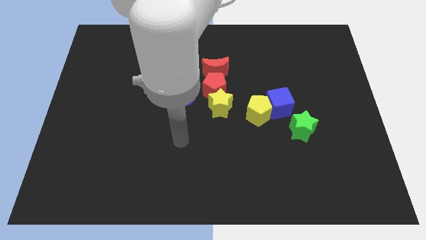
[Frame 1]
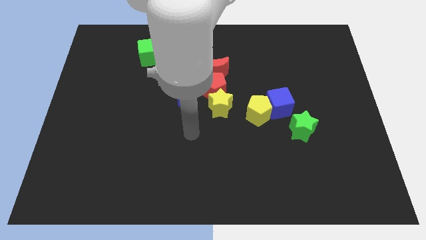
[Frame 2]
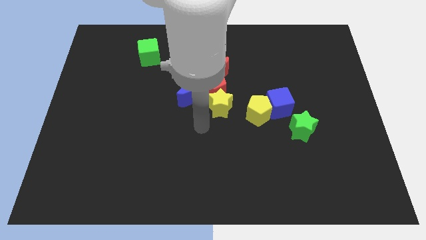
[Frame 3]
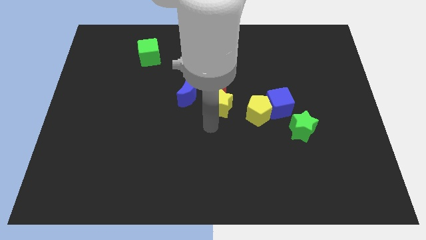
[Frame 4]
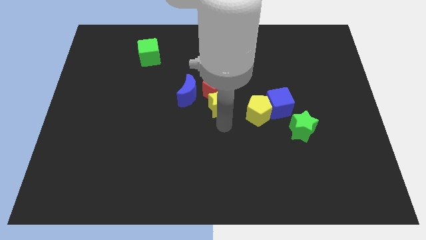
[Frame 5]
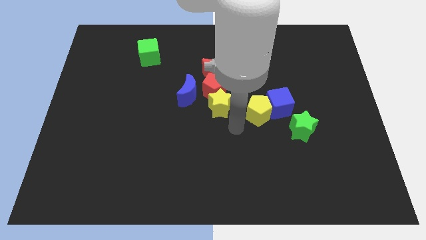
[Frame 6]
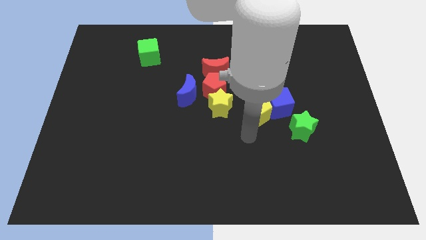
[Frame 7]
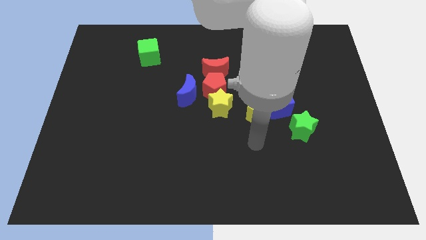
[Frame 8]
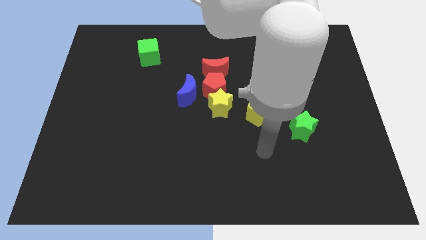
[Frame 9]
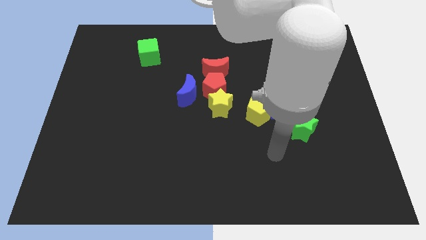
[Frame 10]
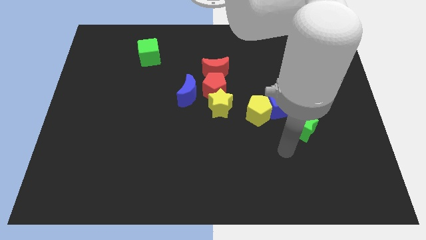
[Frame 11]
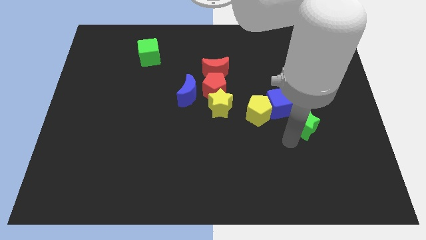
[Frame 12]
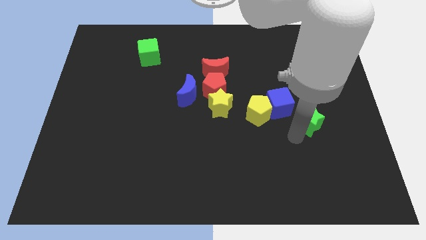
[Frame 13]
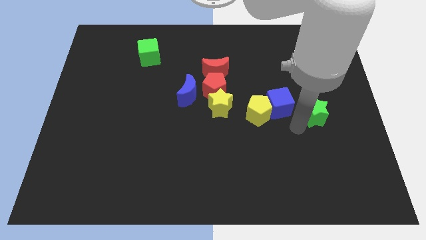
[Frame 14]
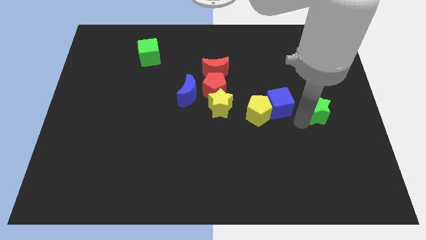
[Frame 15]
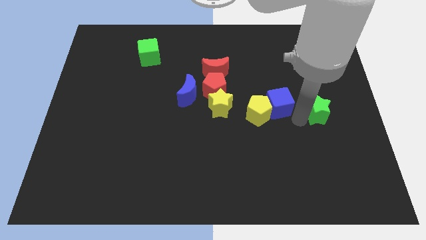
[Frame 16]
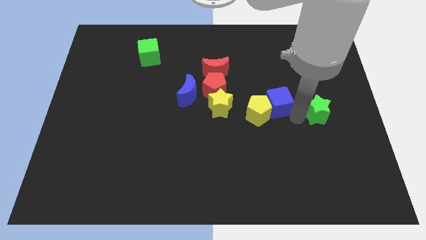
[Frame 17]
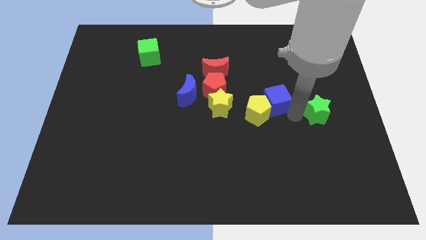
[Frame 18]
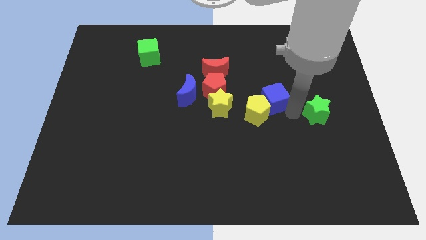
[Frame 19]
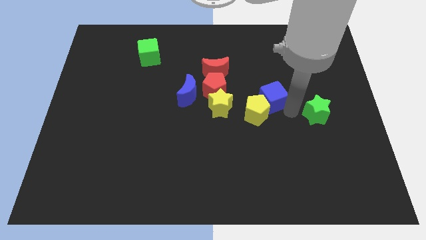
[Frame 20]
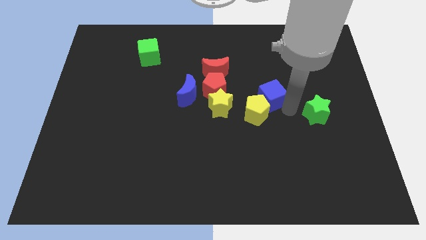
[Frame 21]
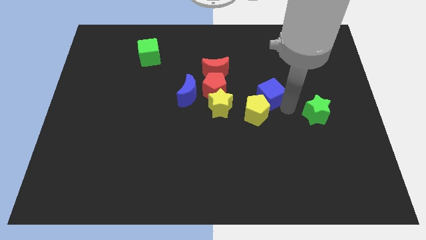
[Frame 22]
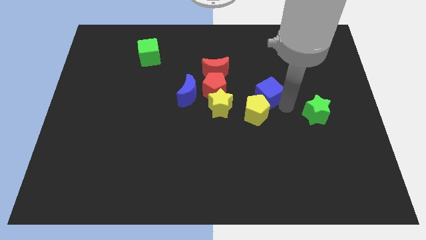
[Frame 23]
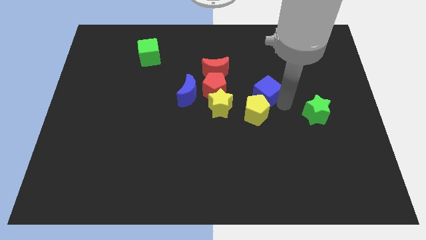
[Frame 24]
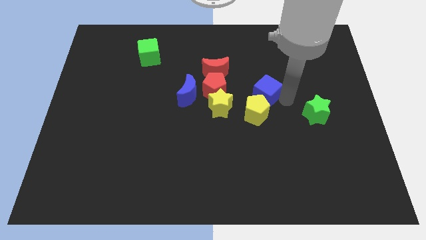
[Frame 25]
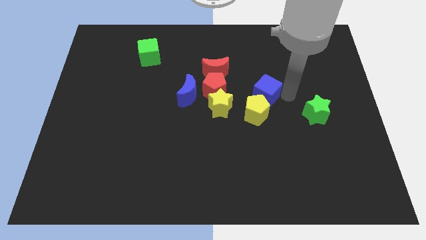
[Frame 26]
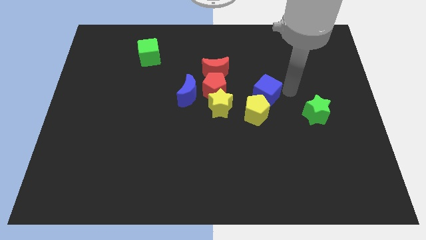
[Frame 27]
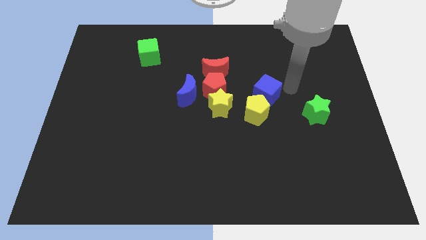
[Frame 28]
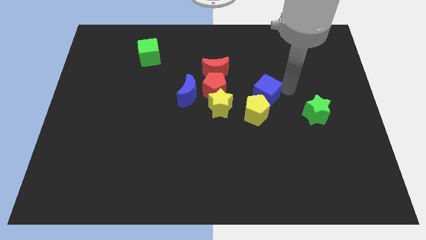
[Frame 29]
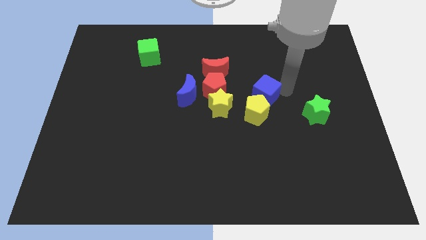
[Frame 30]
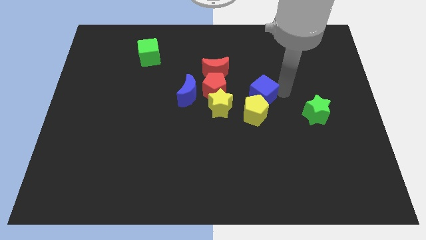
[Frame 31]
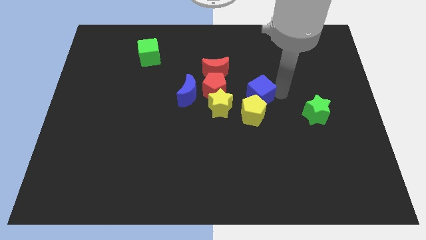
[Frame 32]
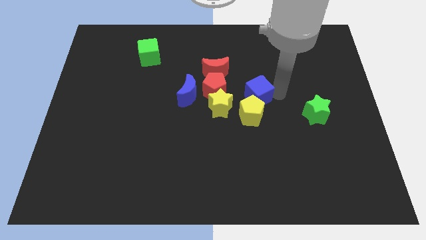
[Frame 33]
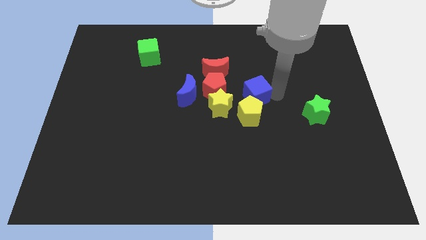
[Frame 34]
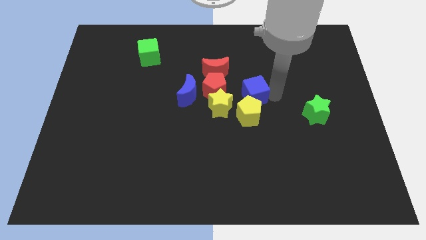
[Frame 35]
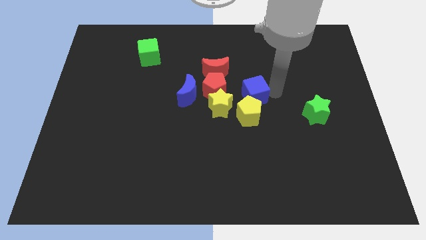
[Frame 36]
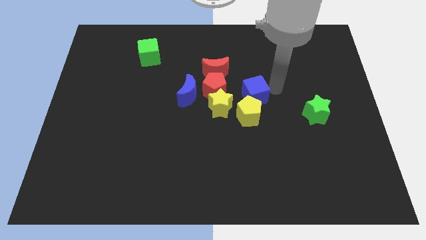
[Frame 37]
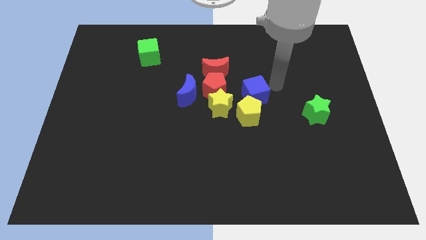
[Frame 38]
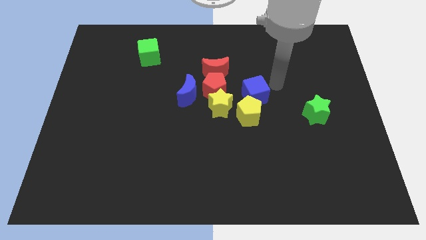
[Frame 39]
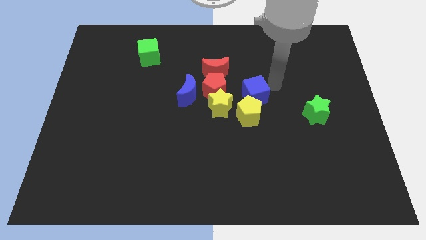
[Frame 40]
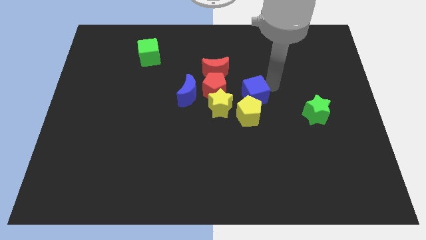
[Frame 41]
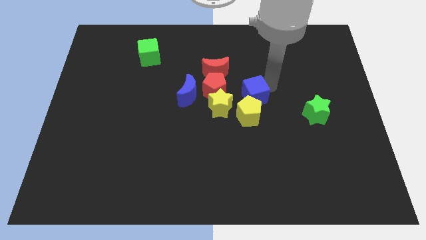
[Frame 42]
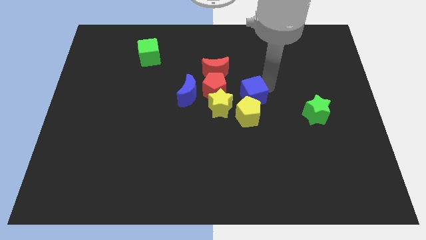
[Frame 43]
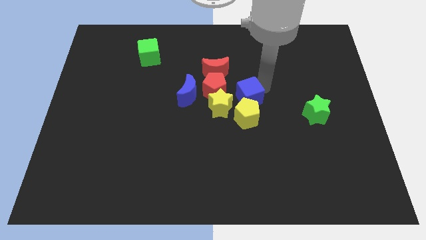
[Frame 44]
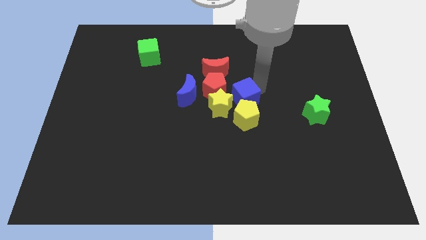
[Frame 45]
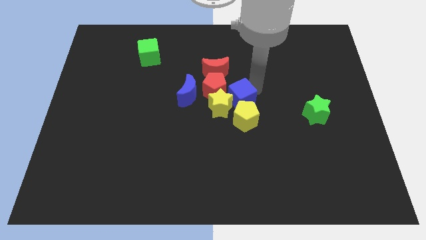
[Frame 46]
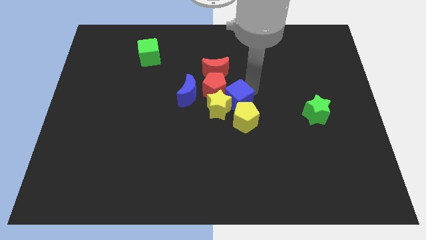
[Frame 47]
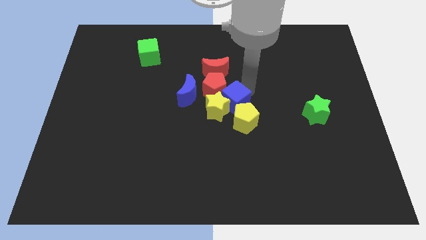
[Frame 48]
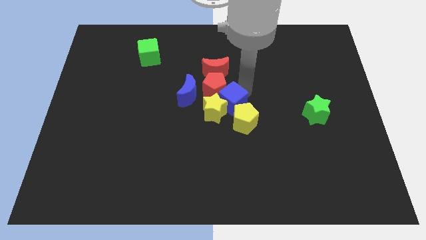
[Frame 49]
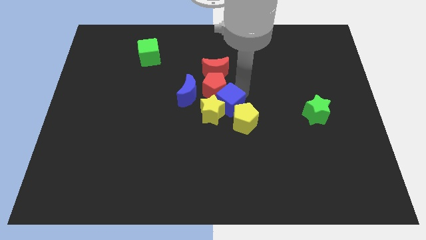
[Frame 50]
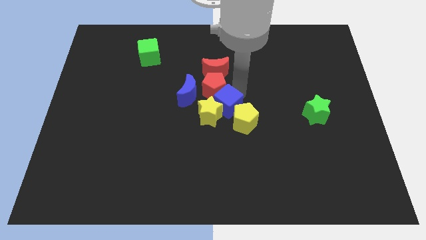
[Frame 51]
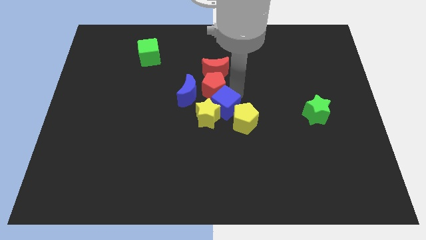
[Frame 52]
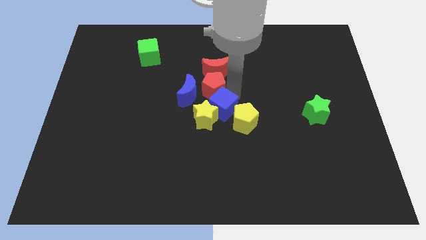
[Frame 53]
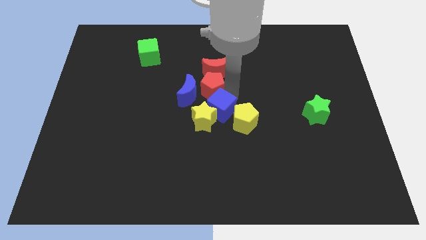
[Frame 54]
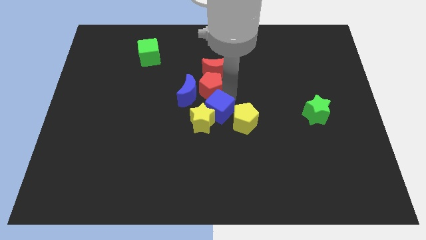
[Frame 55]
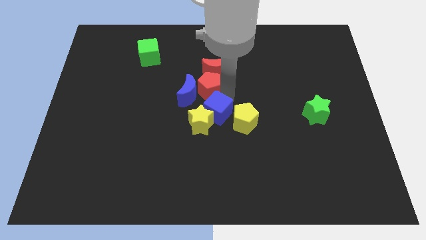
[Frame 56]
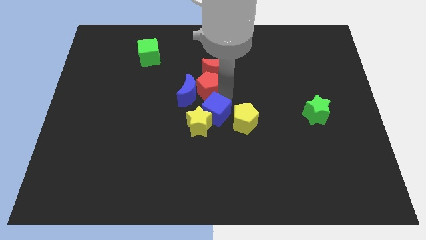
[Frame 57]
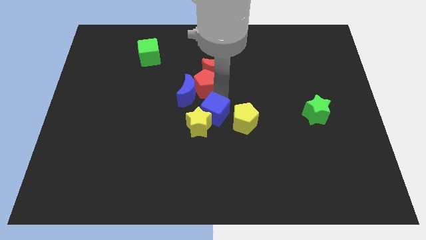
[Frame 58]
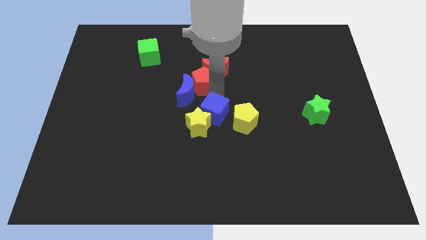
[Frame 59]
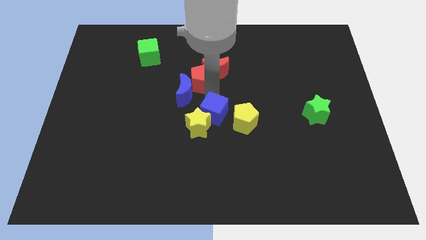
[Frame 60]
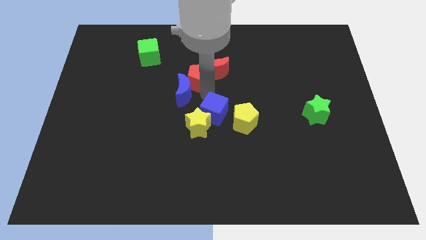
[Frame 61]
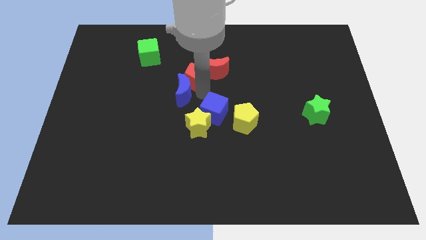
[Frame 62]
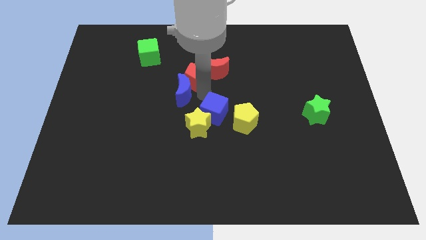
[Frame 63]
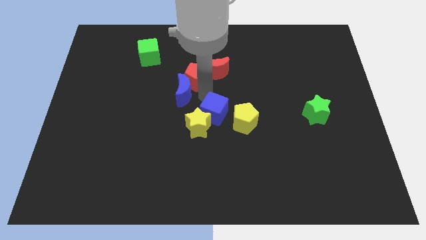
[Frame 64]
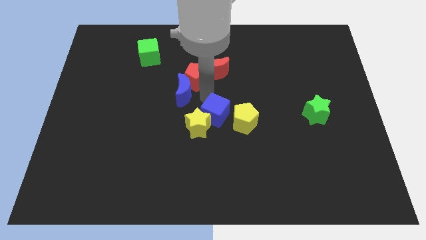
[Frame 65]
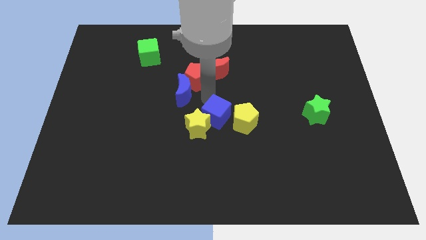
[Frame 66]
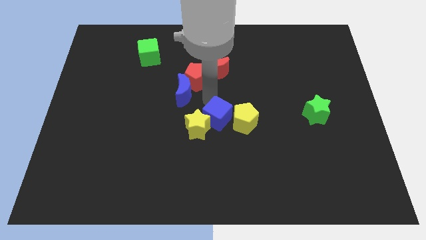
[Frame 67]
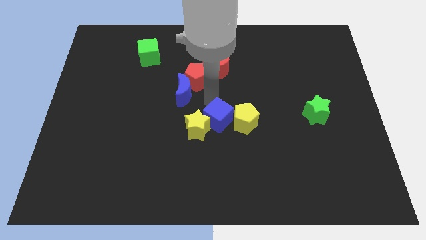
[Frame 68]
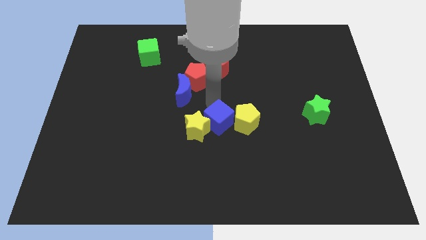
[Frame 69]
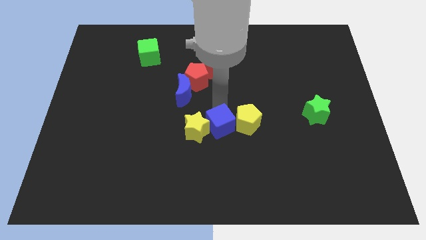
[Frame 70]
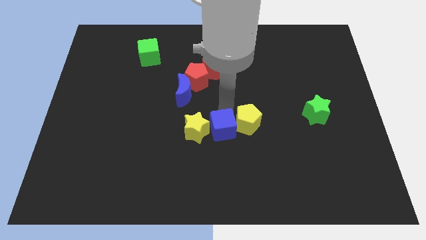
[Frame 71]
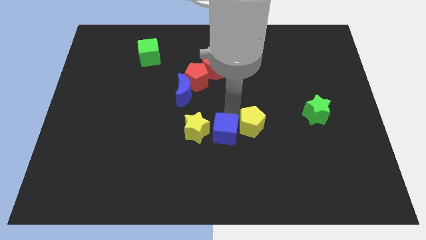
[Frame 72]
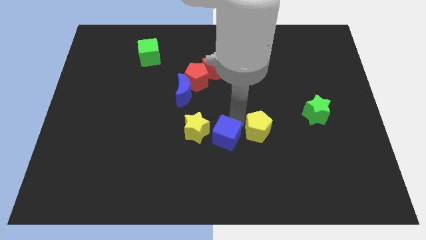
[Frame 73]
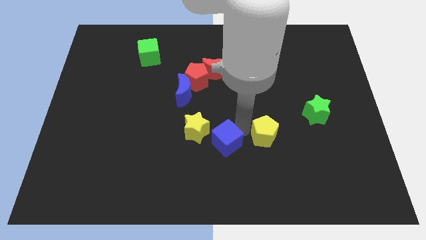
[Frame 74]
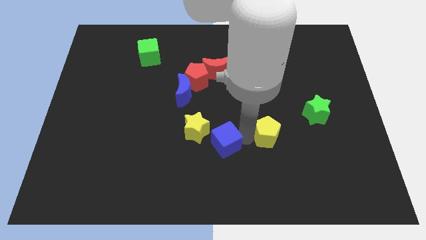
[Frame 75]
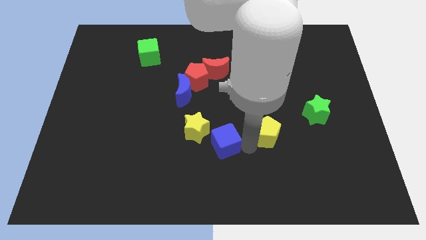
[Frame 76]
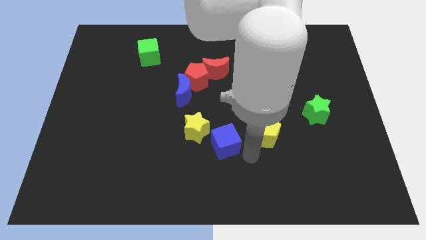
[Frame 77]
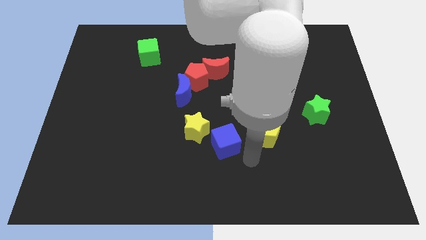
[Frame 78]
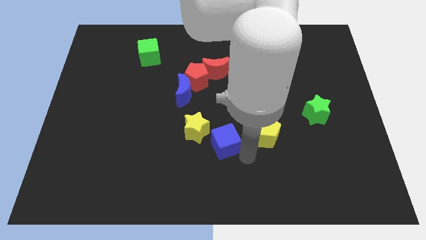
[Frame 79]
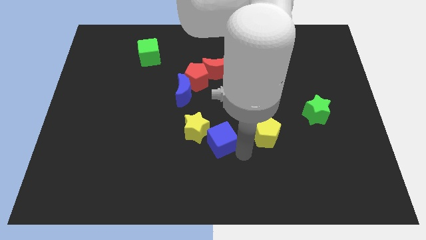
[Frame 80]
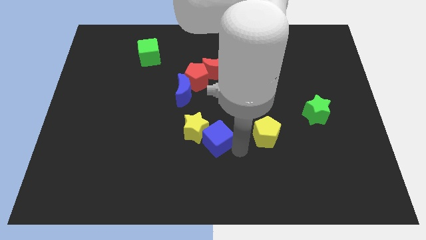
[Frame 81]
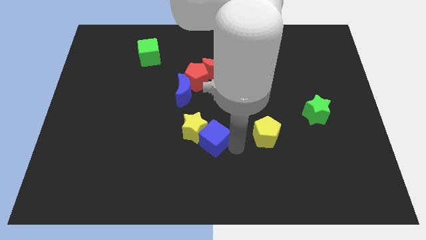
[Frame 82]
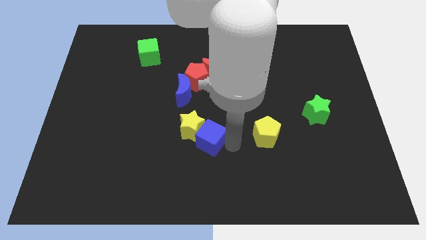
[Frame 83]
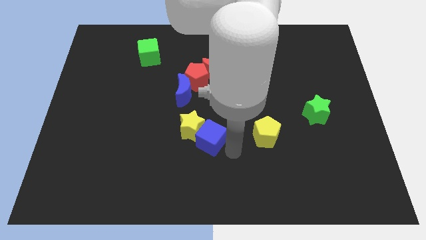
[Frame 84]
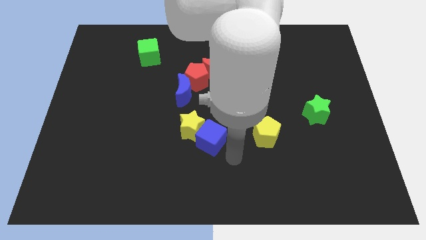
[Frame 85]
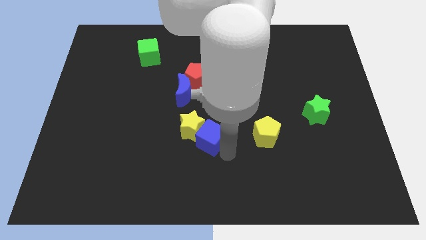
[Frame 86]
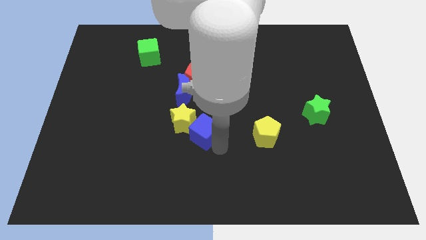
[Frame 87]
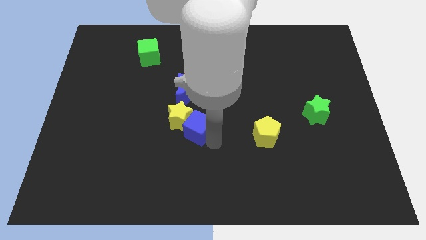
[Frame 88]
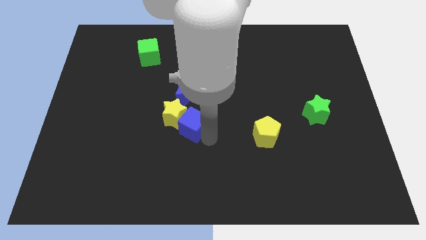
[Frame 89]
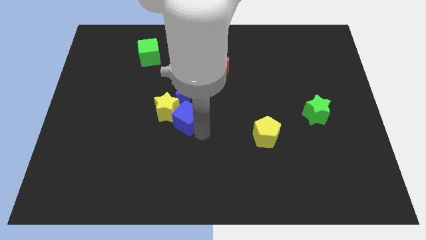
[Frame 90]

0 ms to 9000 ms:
slide the blue cube left
